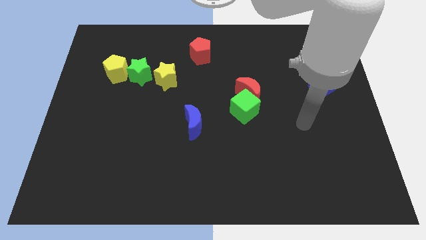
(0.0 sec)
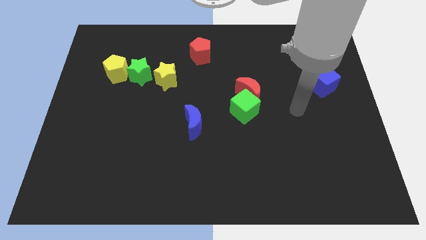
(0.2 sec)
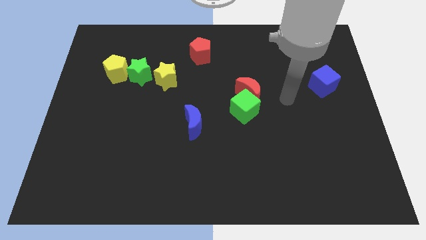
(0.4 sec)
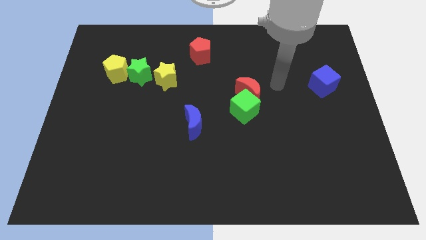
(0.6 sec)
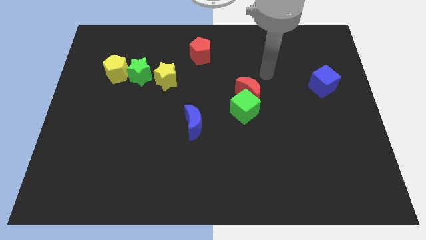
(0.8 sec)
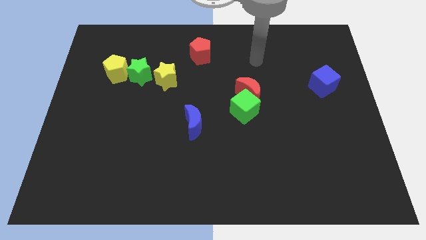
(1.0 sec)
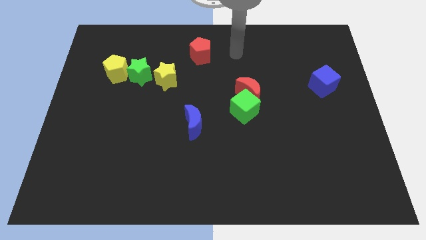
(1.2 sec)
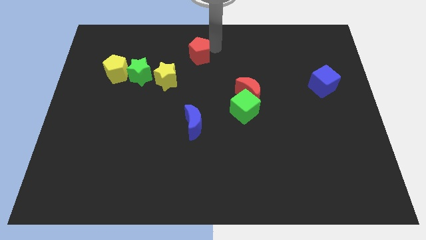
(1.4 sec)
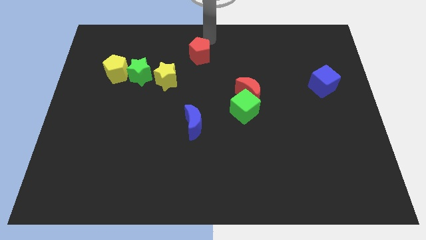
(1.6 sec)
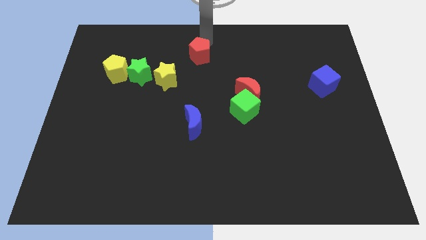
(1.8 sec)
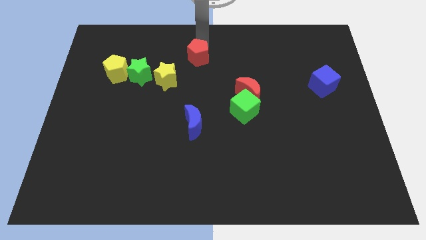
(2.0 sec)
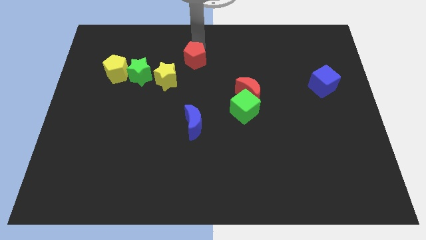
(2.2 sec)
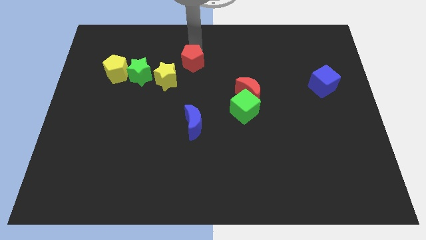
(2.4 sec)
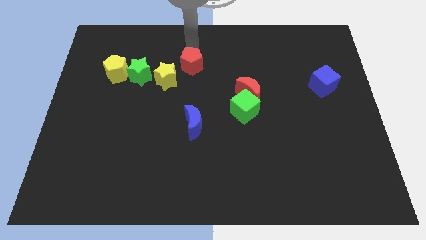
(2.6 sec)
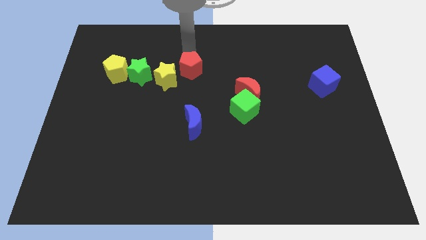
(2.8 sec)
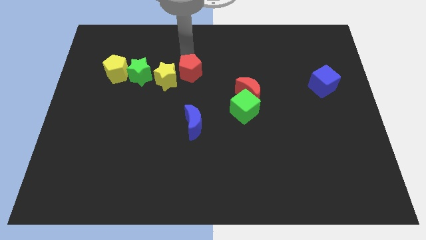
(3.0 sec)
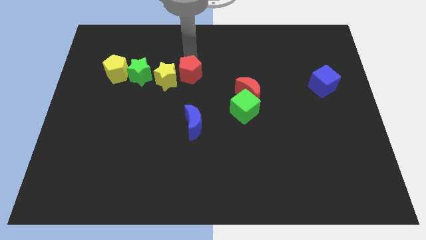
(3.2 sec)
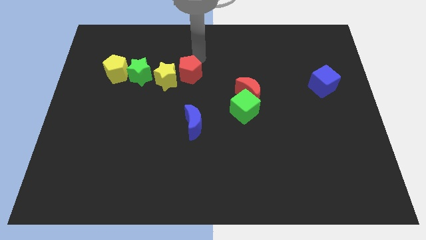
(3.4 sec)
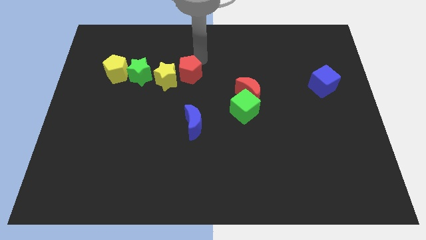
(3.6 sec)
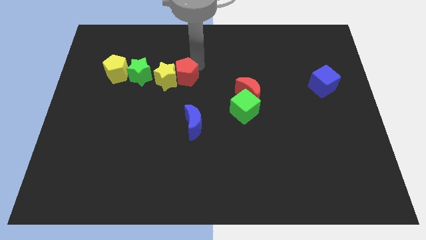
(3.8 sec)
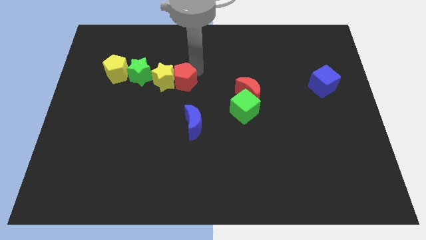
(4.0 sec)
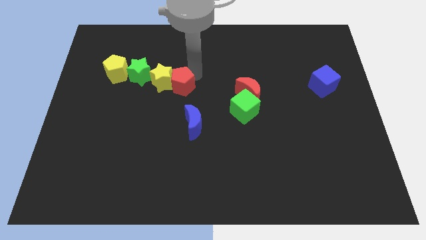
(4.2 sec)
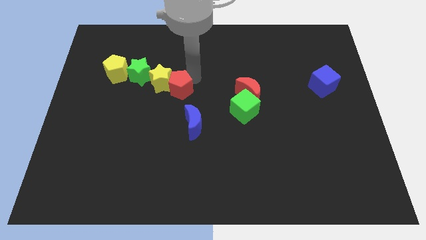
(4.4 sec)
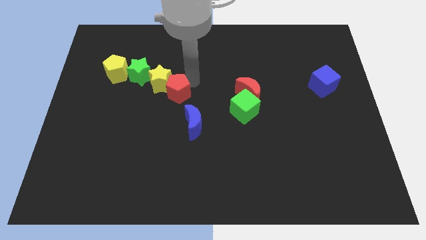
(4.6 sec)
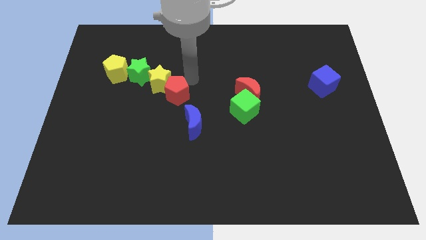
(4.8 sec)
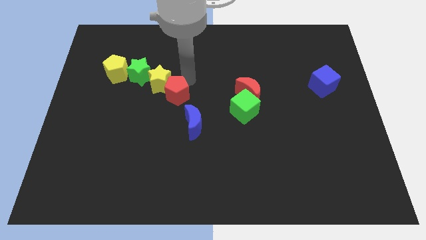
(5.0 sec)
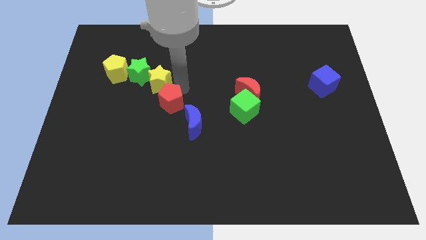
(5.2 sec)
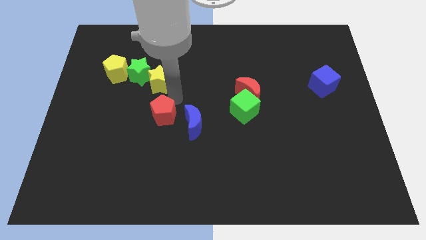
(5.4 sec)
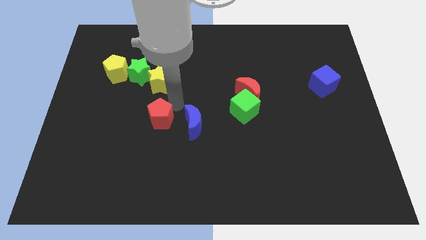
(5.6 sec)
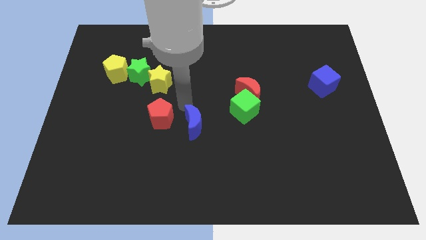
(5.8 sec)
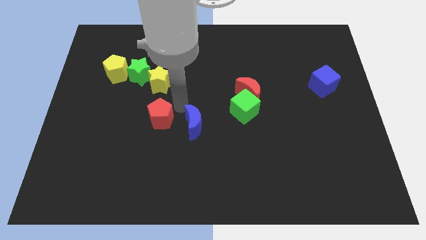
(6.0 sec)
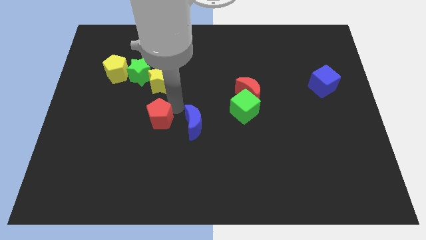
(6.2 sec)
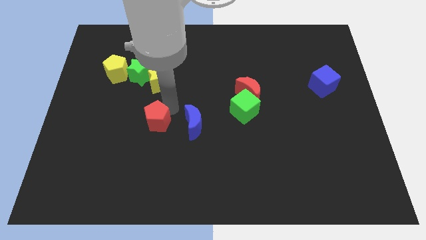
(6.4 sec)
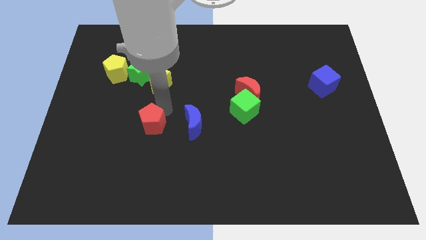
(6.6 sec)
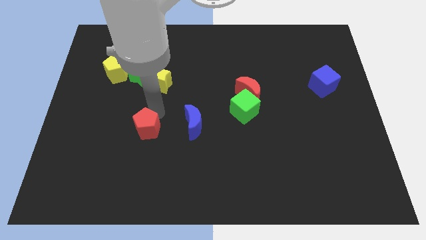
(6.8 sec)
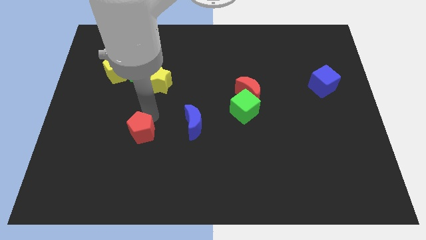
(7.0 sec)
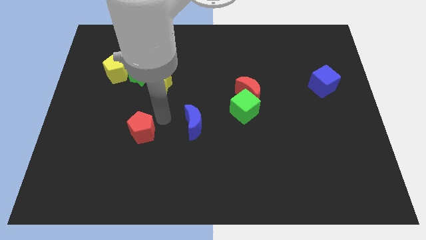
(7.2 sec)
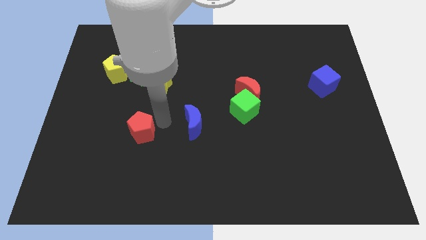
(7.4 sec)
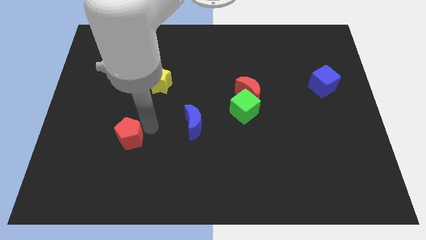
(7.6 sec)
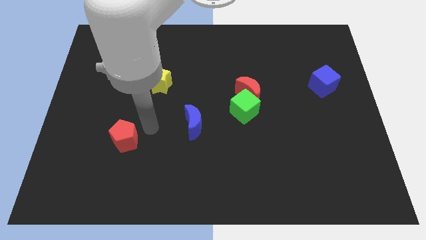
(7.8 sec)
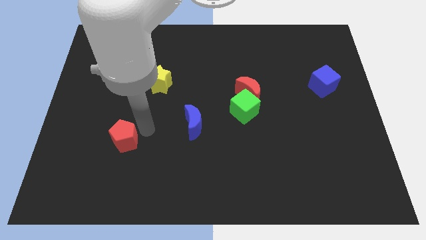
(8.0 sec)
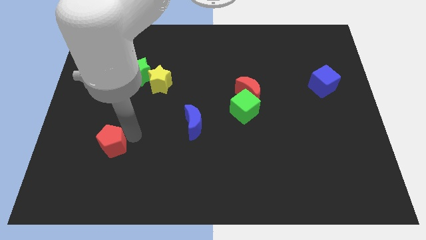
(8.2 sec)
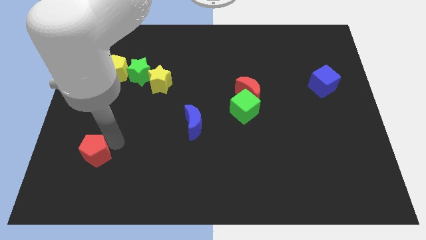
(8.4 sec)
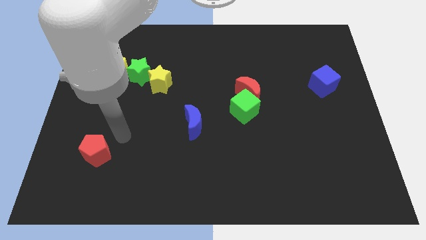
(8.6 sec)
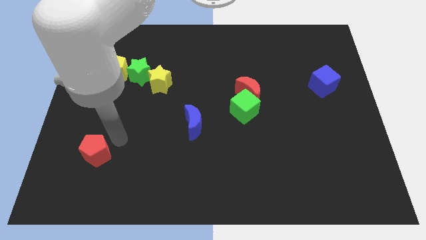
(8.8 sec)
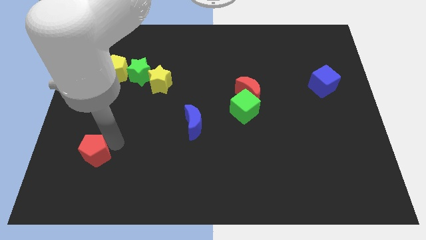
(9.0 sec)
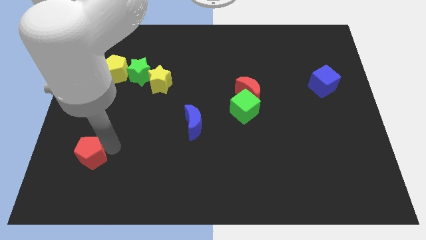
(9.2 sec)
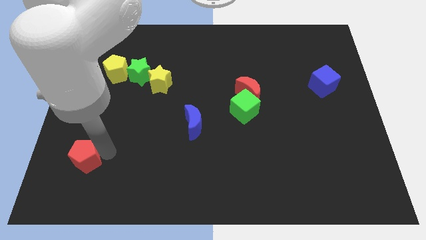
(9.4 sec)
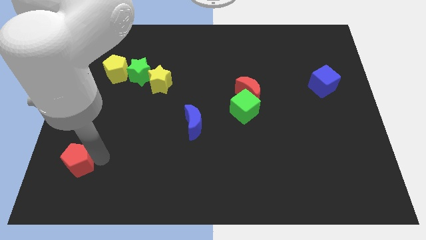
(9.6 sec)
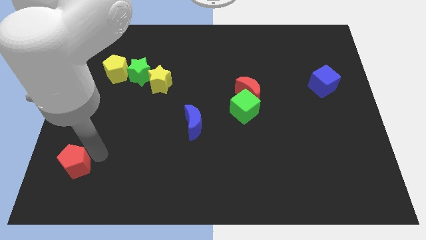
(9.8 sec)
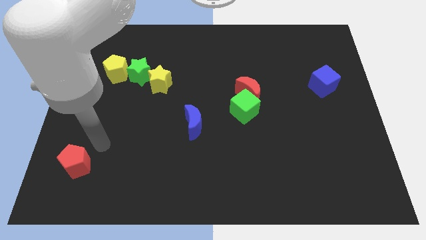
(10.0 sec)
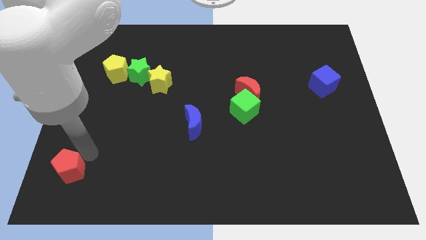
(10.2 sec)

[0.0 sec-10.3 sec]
slide the red pentagon to the bottom left corner

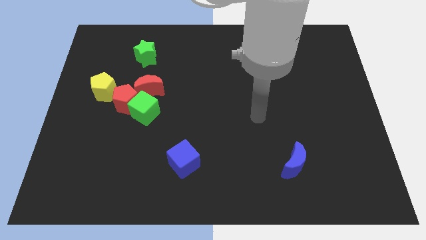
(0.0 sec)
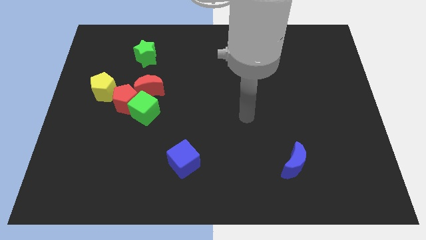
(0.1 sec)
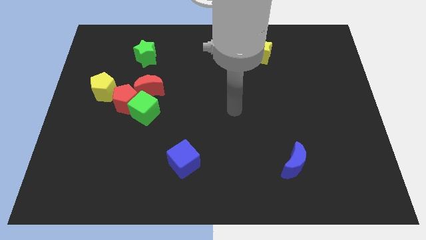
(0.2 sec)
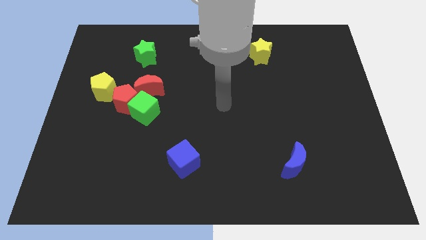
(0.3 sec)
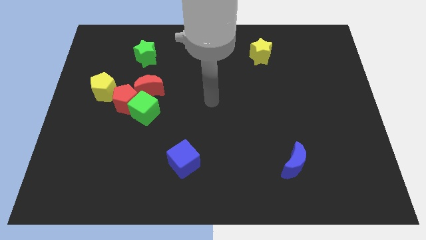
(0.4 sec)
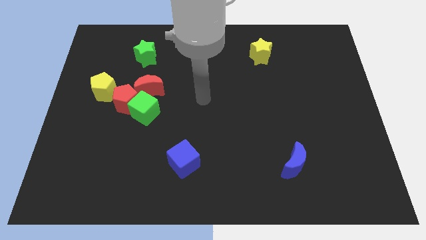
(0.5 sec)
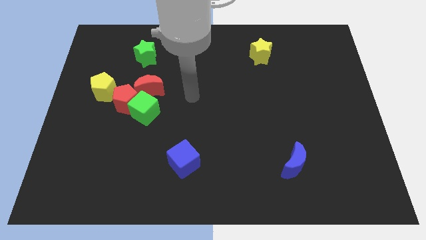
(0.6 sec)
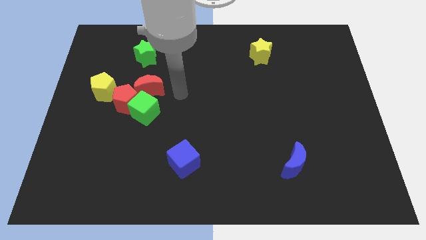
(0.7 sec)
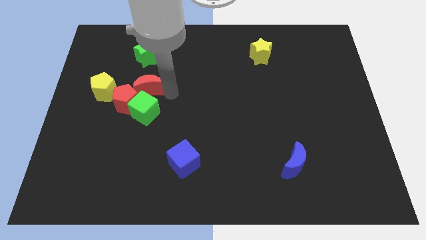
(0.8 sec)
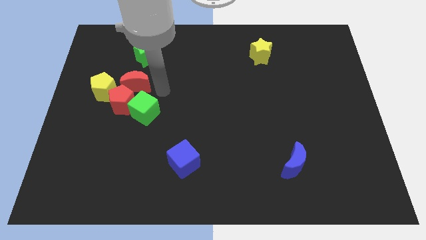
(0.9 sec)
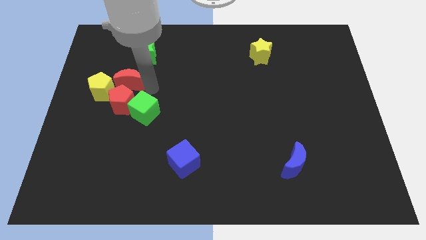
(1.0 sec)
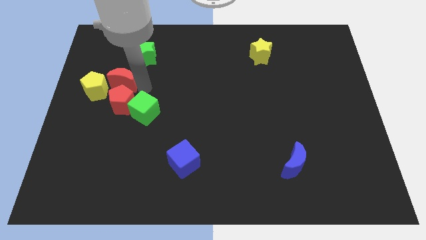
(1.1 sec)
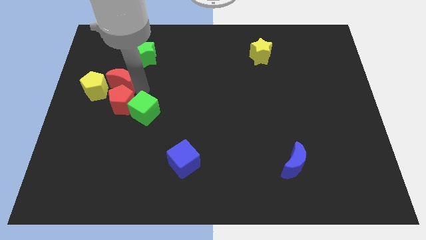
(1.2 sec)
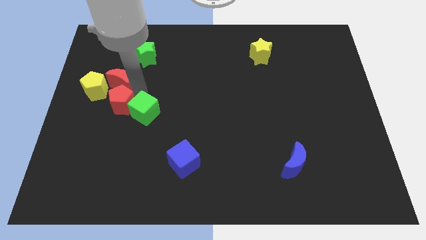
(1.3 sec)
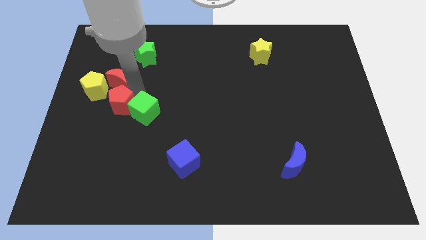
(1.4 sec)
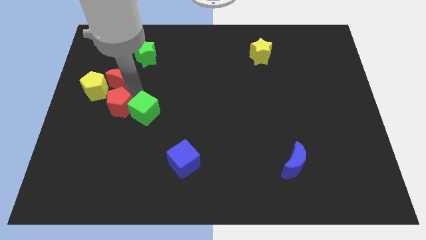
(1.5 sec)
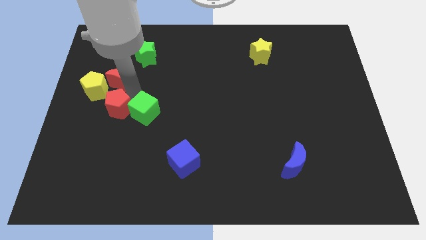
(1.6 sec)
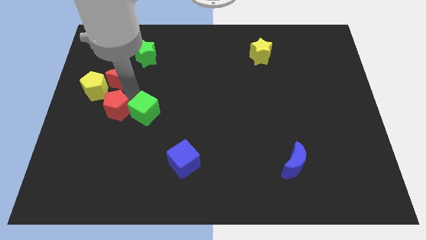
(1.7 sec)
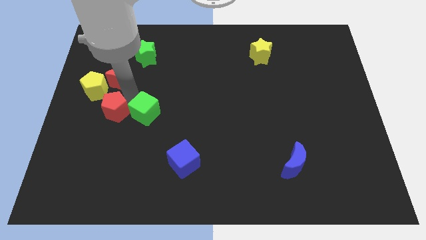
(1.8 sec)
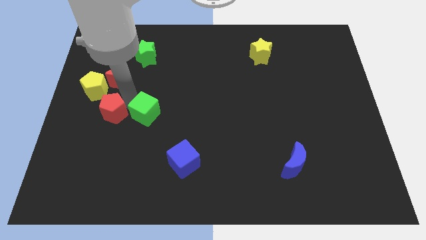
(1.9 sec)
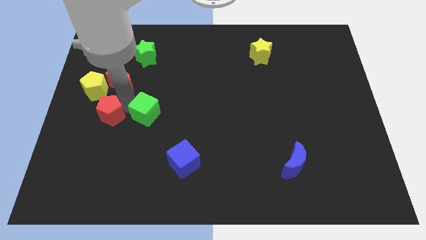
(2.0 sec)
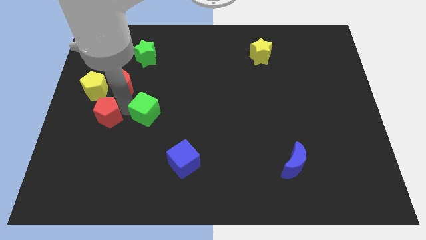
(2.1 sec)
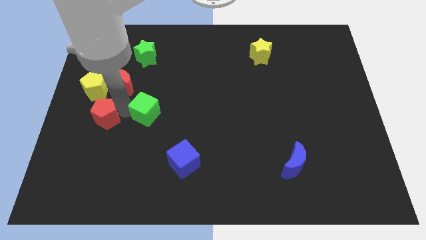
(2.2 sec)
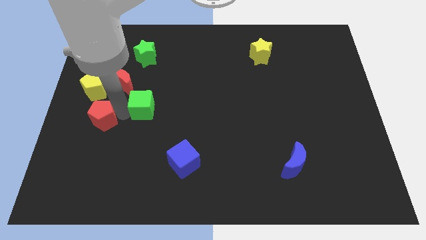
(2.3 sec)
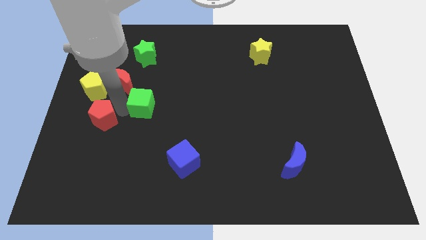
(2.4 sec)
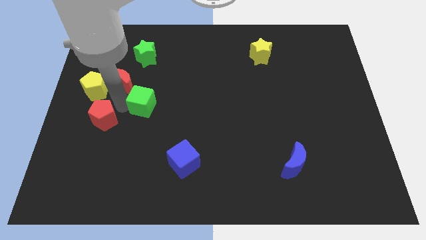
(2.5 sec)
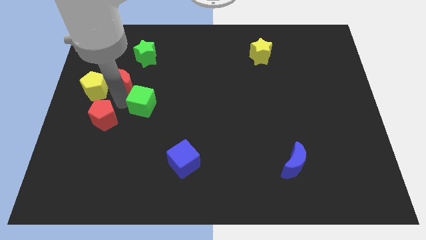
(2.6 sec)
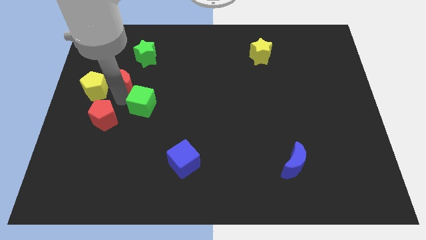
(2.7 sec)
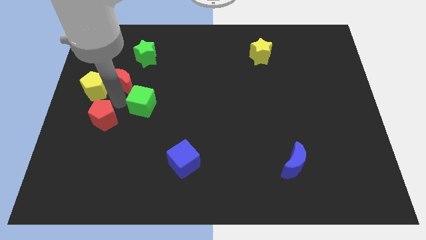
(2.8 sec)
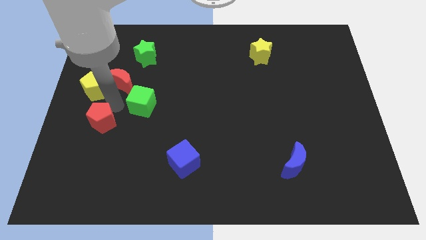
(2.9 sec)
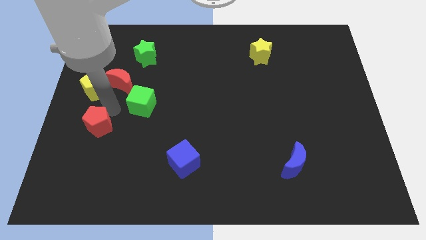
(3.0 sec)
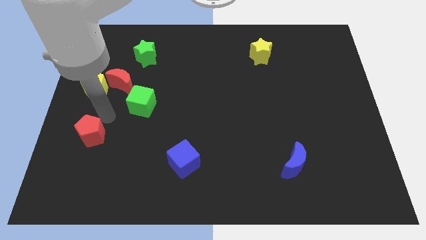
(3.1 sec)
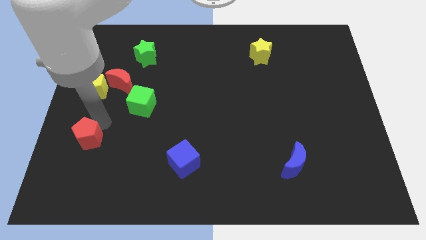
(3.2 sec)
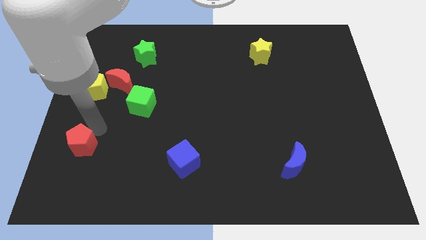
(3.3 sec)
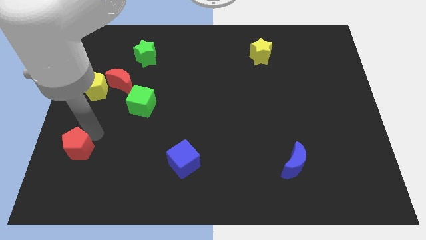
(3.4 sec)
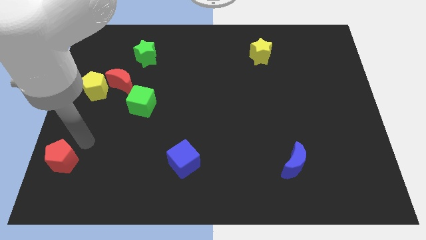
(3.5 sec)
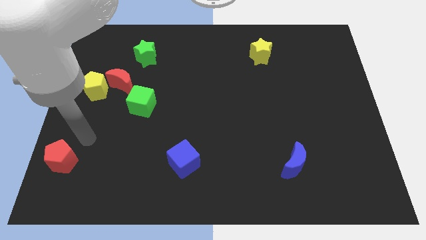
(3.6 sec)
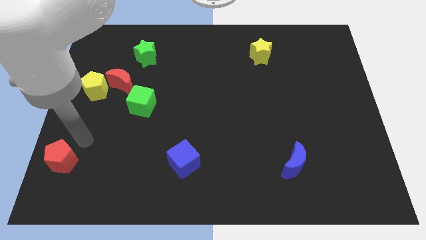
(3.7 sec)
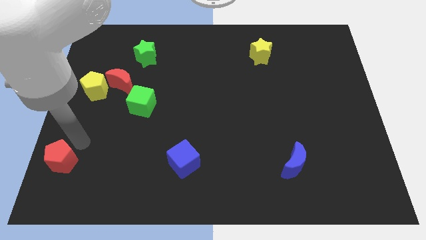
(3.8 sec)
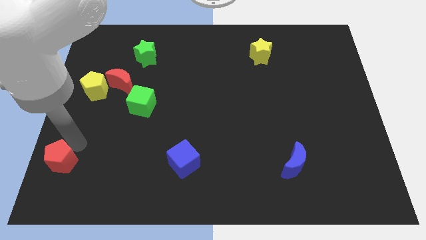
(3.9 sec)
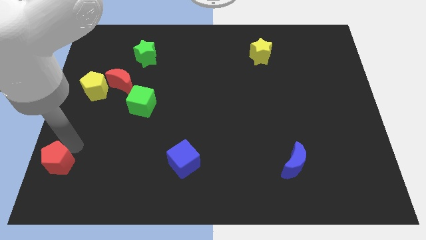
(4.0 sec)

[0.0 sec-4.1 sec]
push the red pentagon to the bottom left
